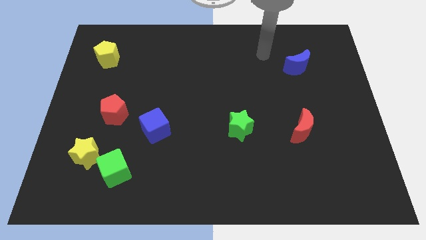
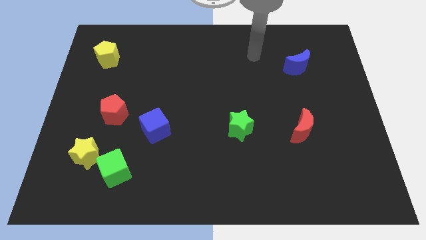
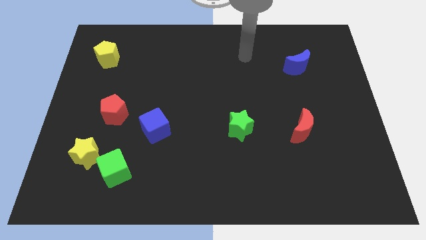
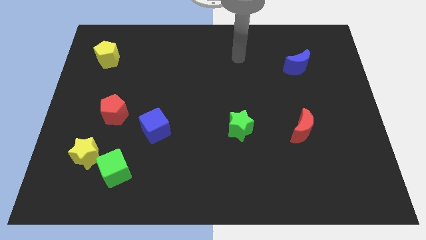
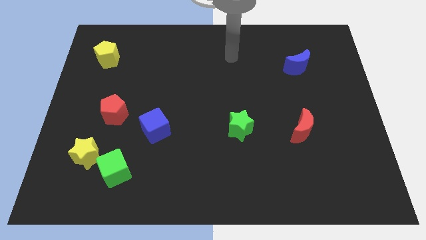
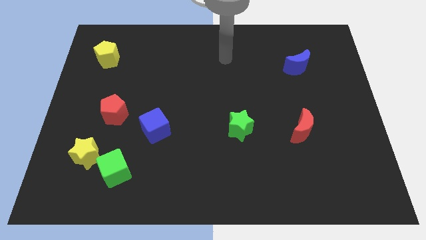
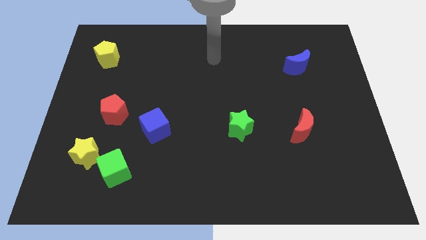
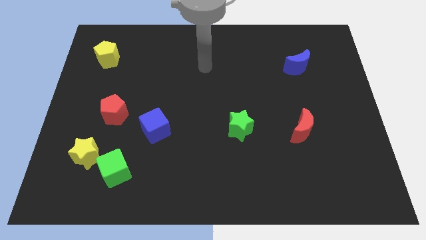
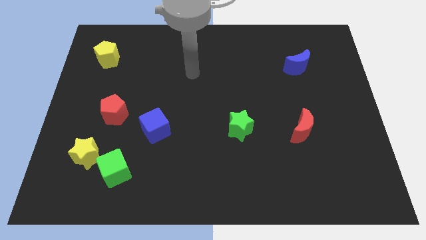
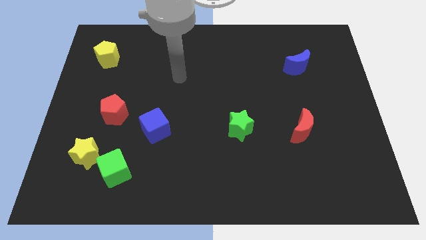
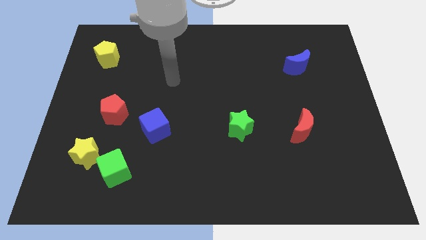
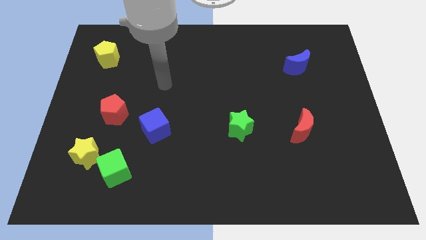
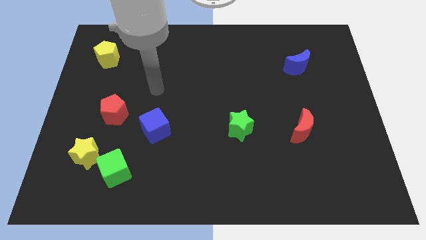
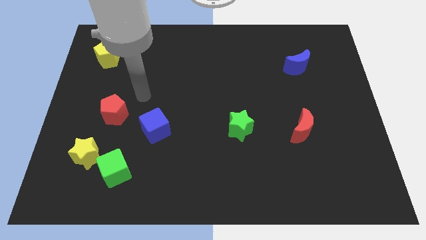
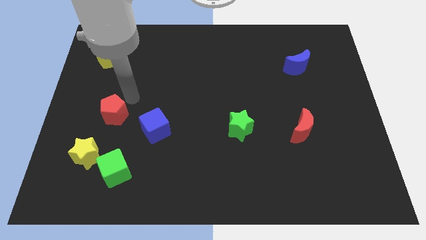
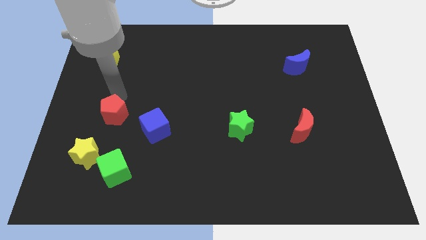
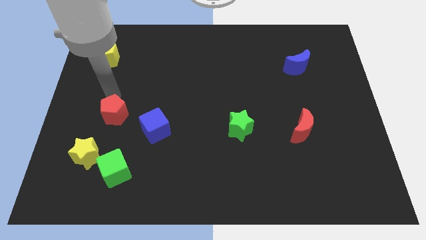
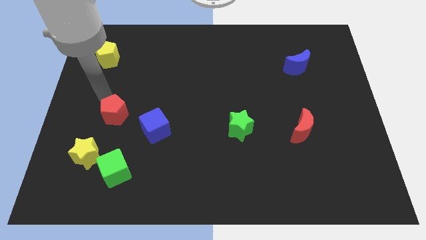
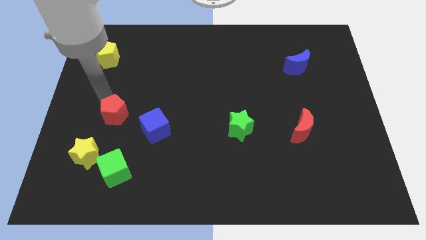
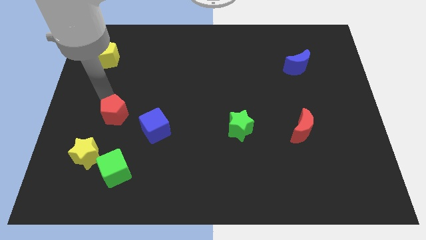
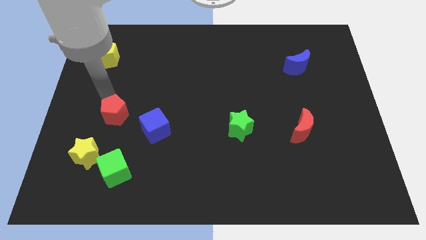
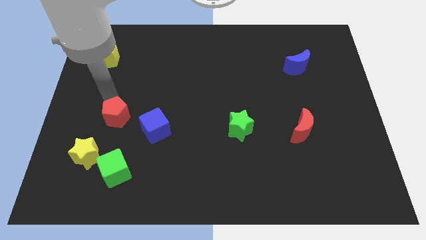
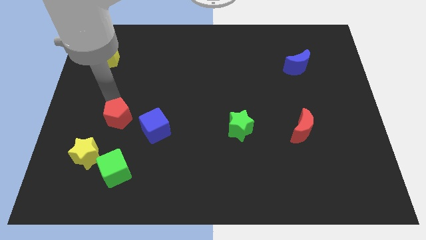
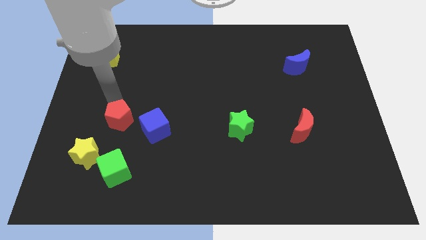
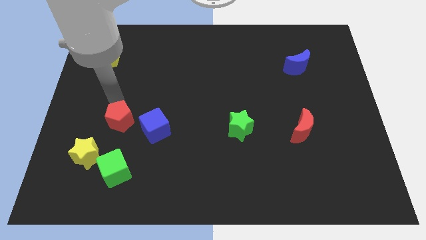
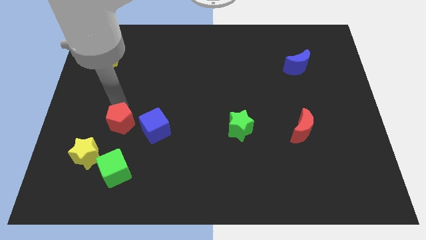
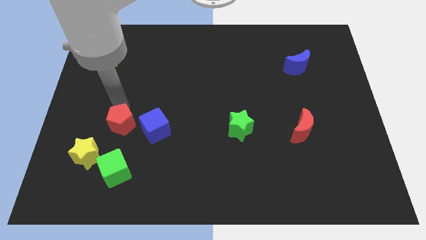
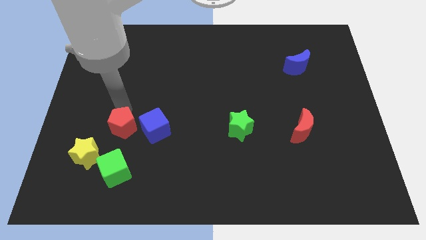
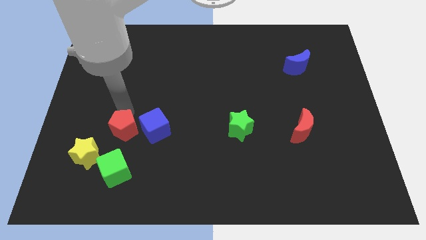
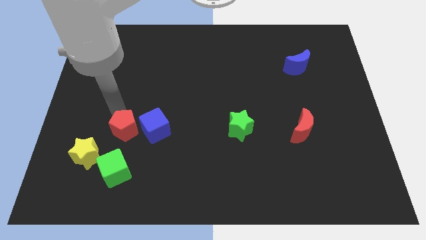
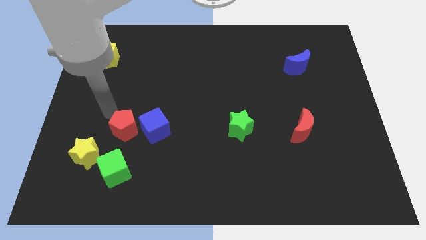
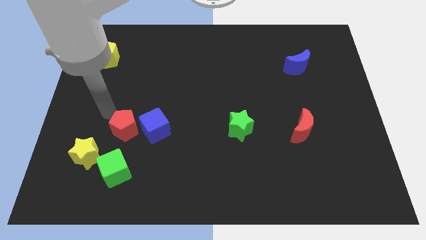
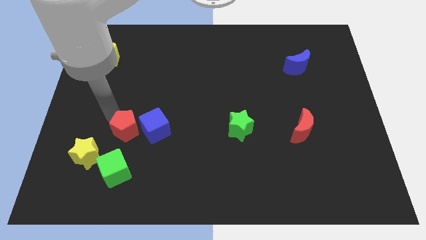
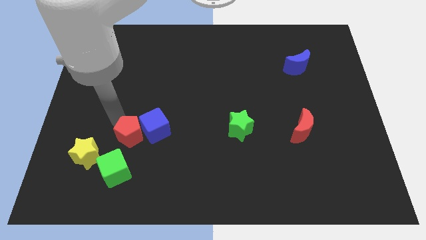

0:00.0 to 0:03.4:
push the red pentagon downwards and then right slightly

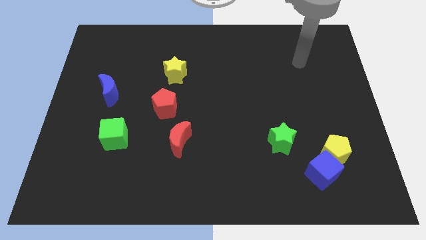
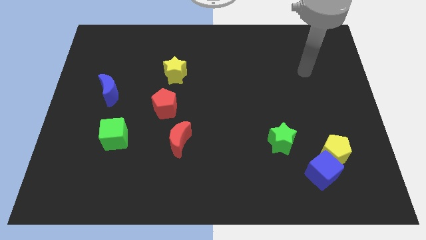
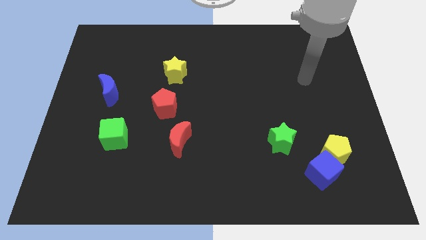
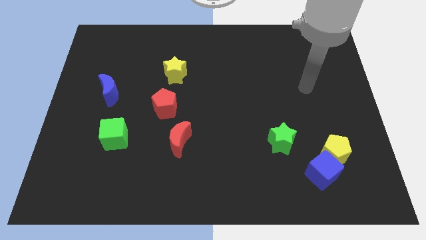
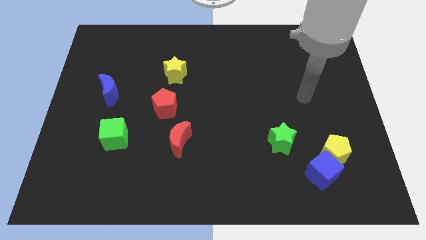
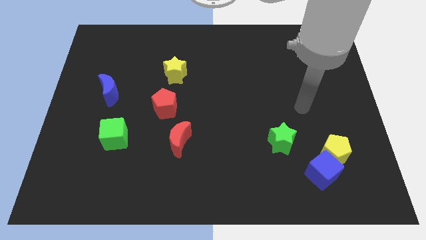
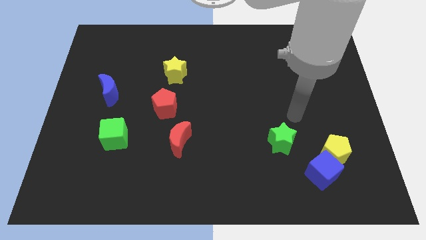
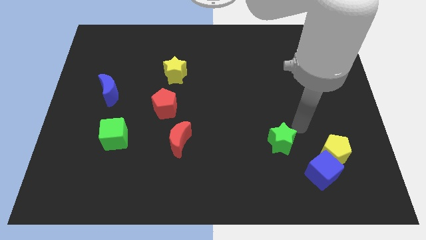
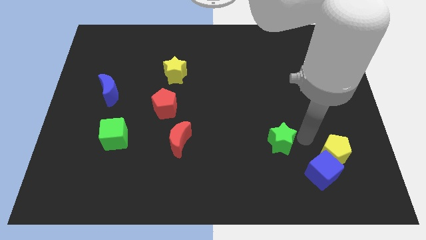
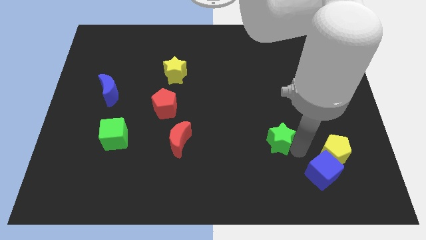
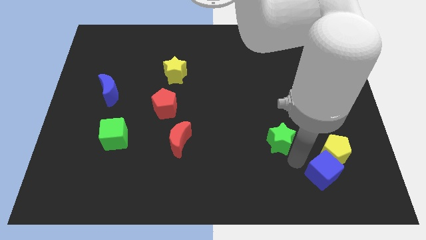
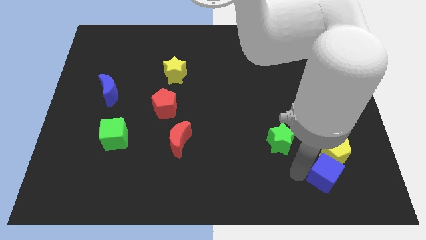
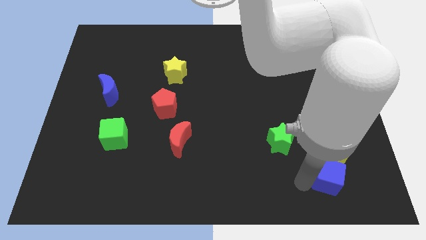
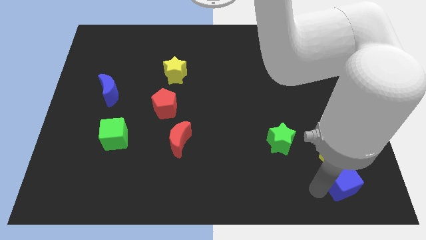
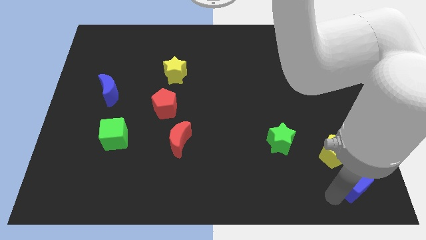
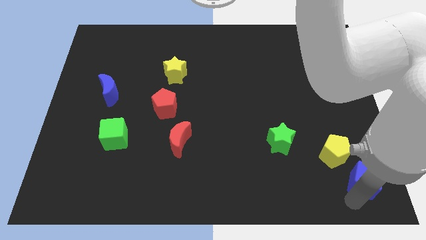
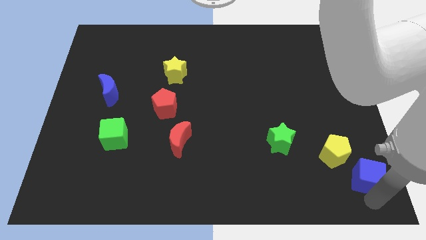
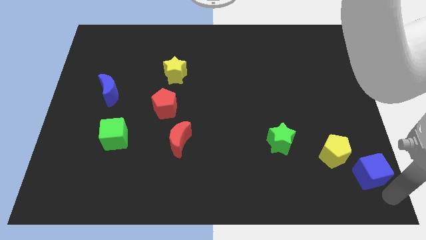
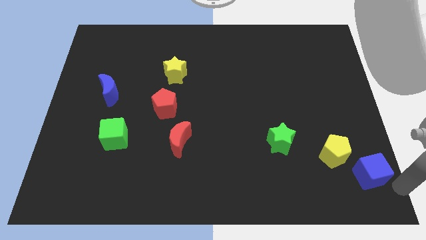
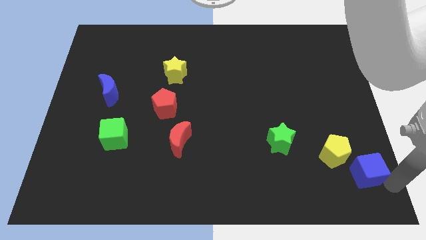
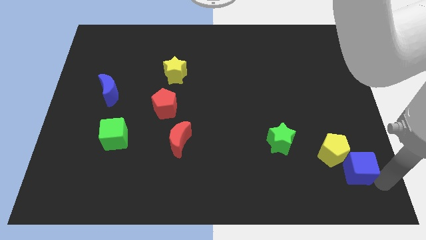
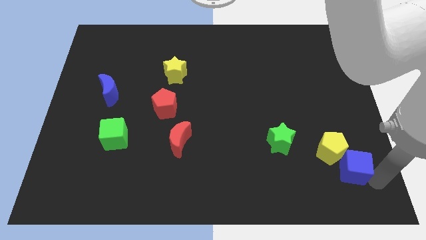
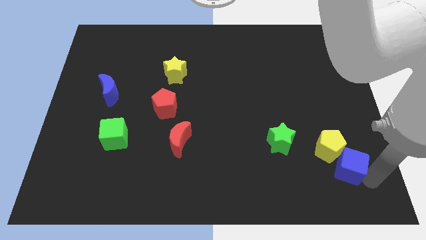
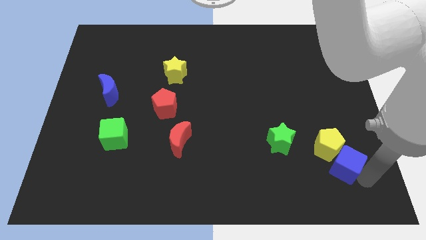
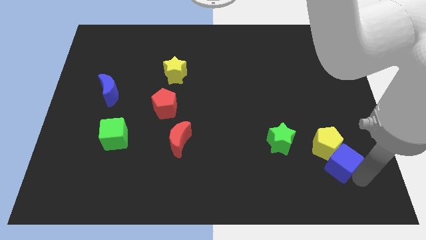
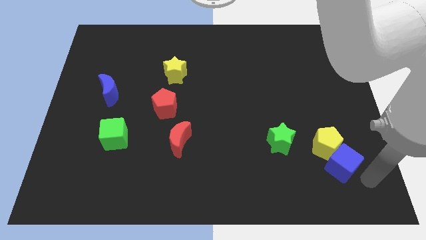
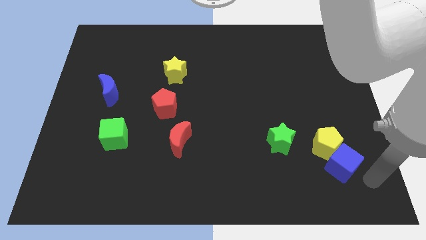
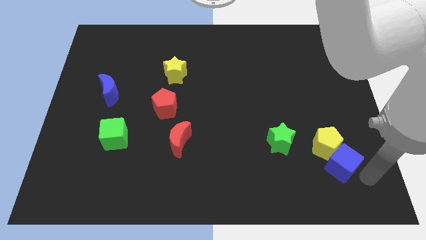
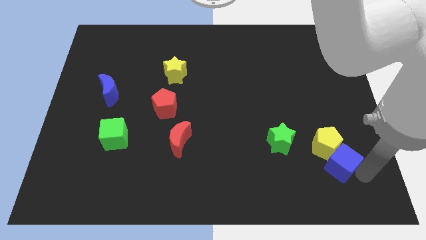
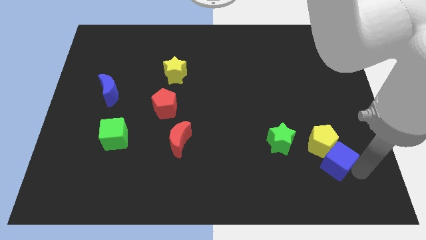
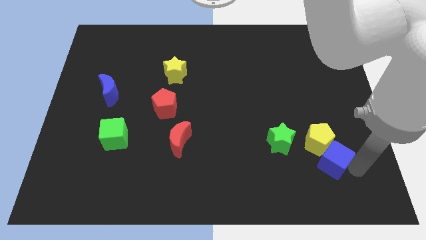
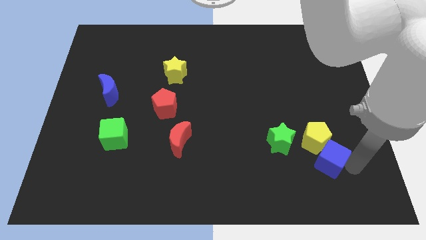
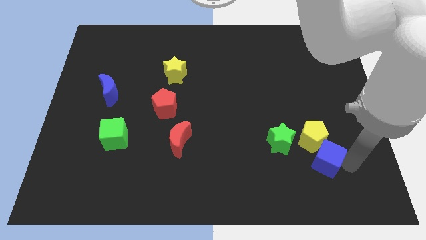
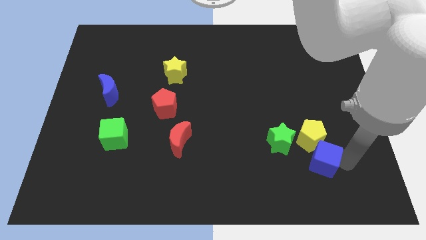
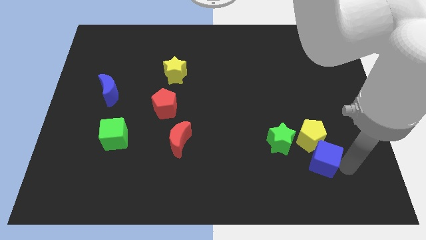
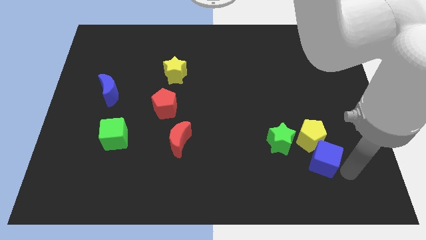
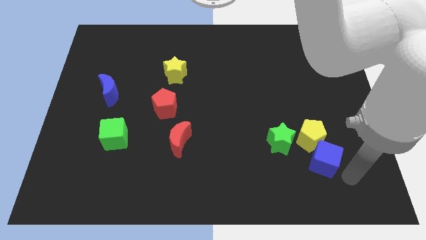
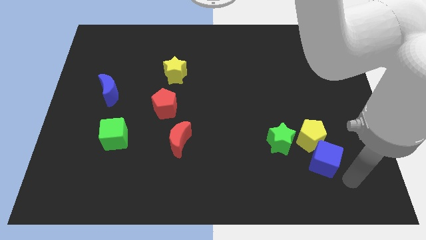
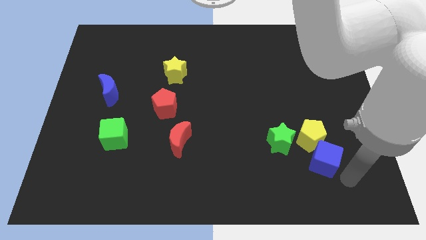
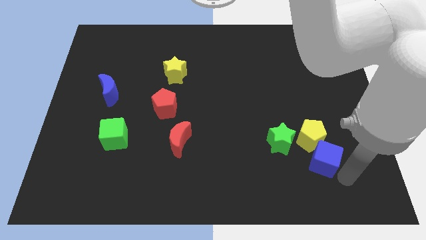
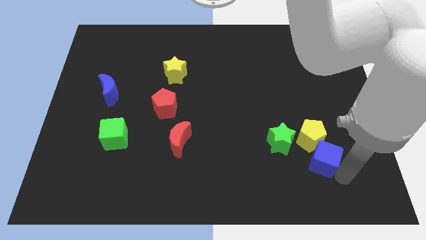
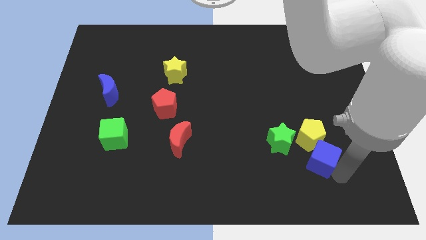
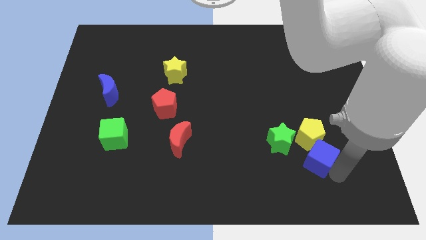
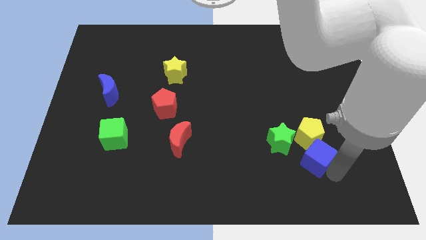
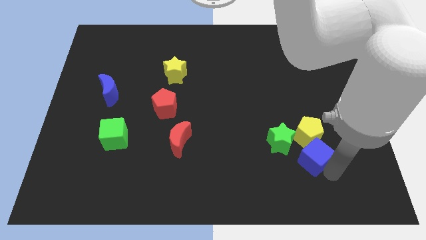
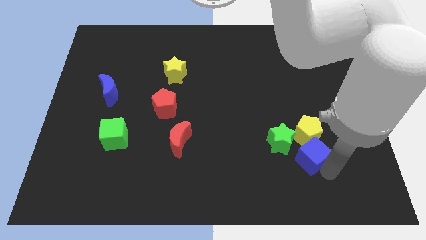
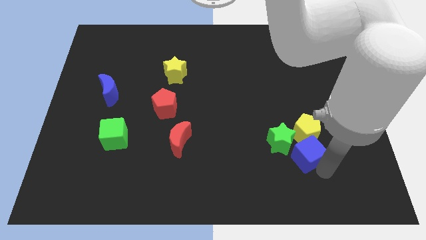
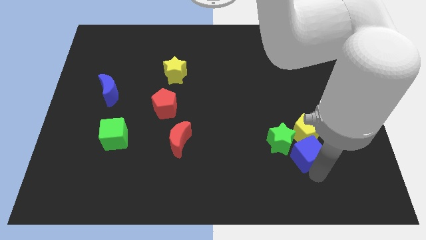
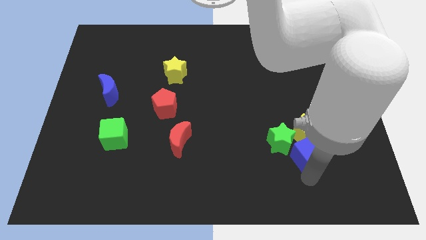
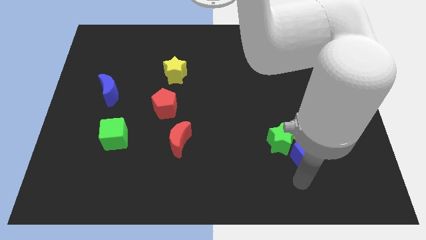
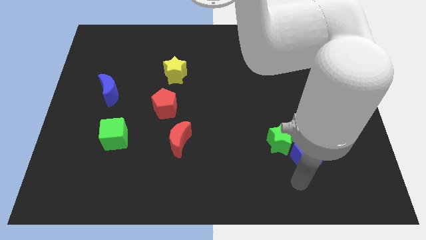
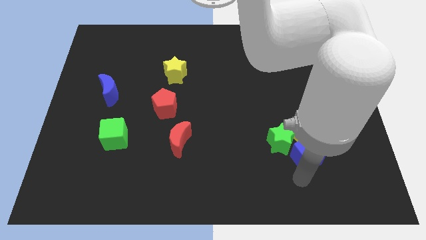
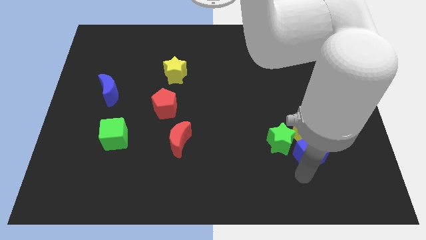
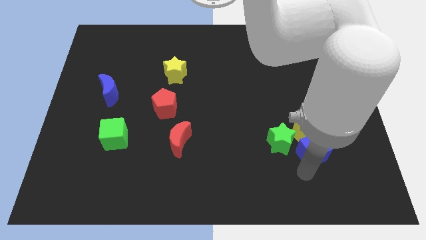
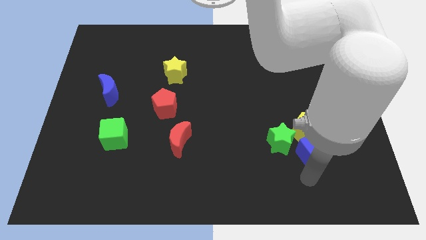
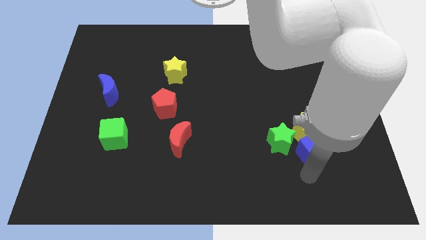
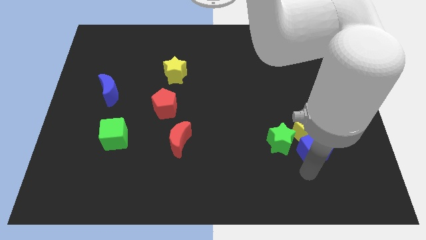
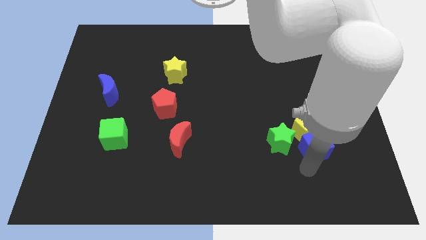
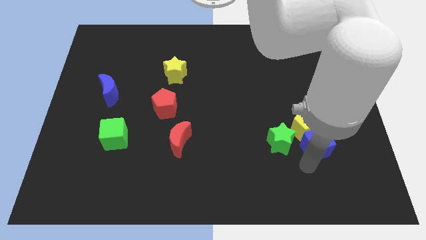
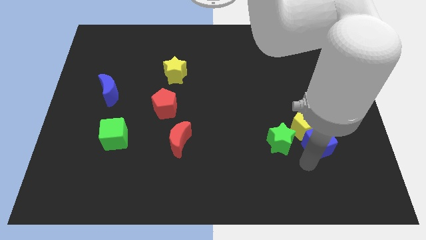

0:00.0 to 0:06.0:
slightly move the blue cube up
